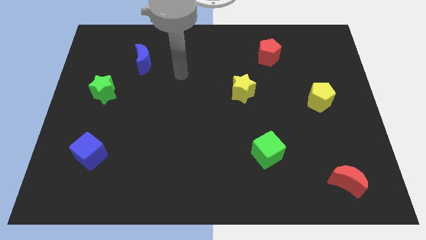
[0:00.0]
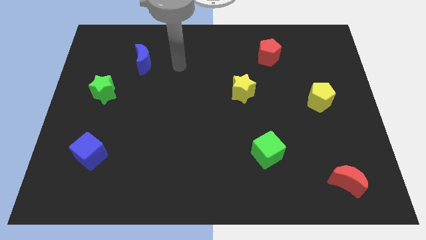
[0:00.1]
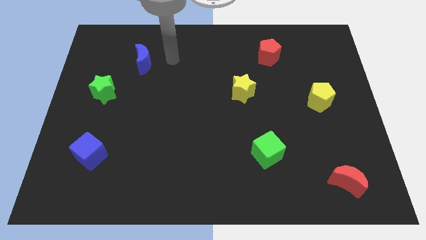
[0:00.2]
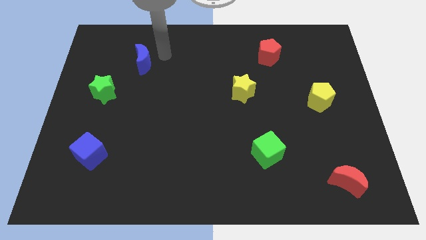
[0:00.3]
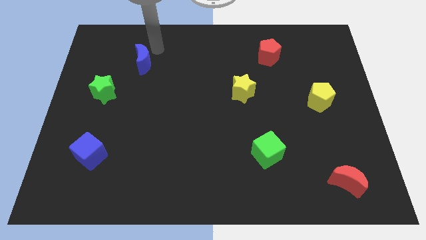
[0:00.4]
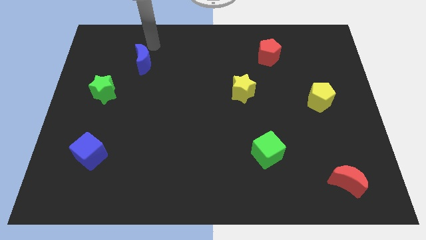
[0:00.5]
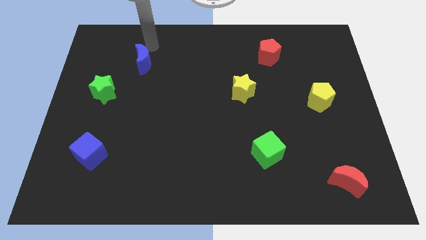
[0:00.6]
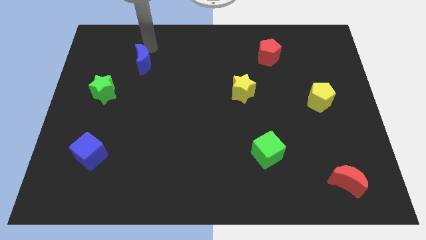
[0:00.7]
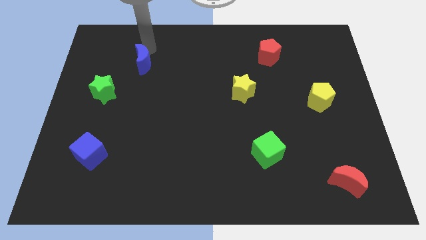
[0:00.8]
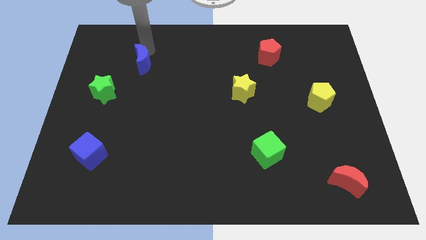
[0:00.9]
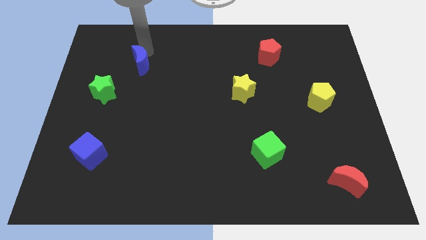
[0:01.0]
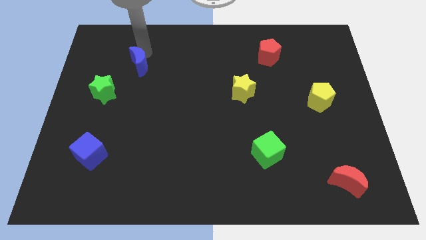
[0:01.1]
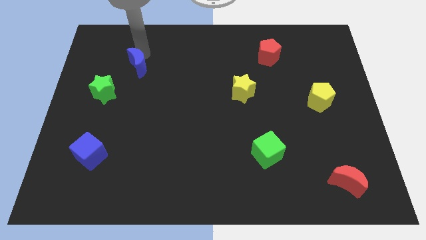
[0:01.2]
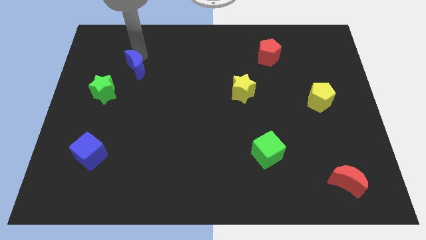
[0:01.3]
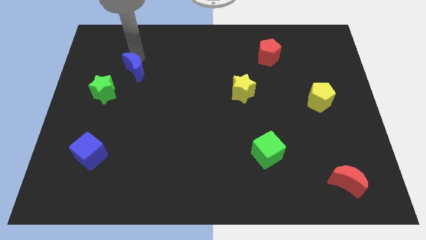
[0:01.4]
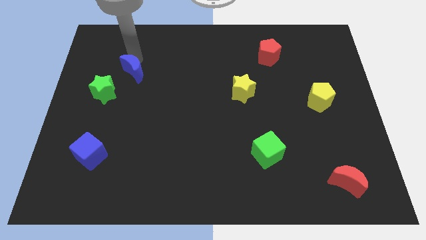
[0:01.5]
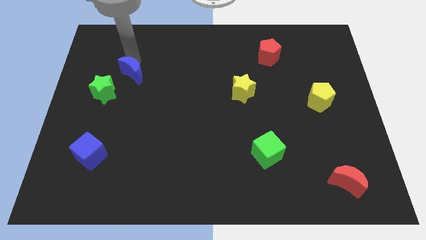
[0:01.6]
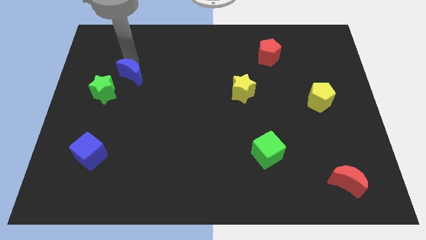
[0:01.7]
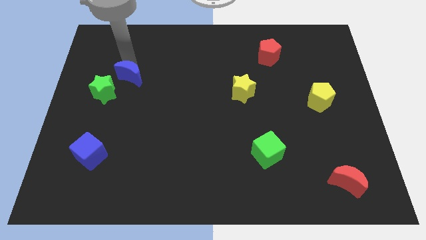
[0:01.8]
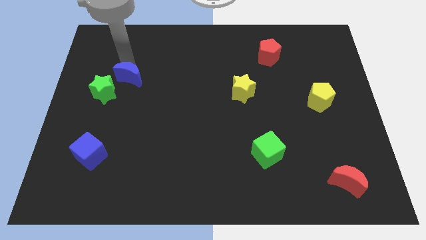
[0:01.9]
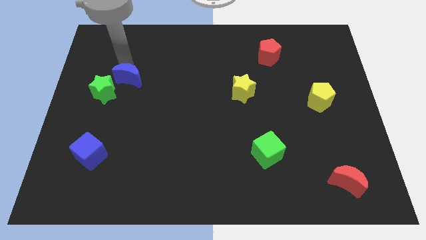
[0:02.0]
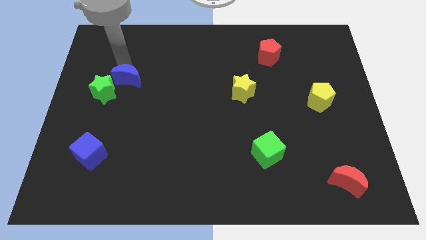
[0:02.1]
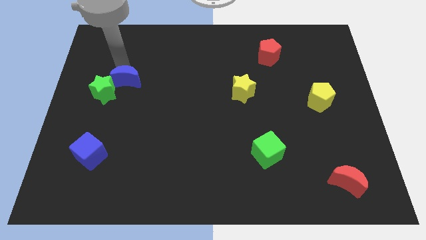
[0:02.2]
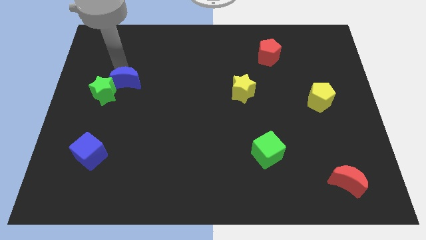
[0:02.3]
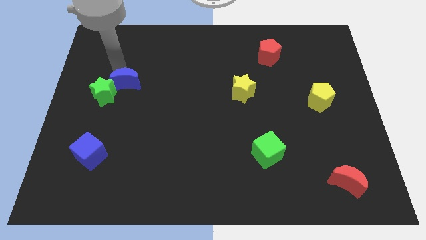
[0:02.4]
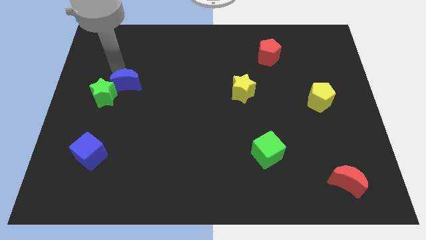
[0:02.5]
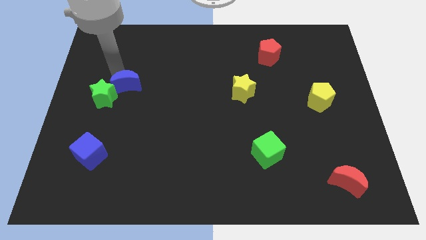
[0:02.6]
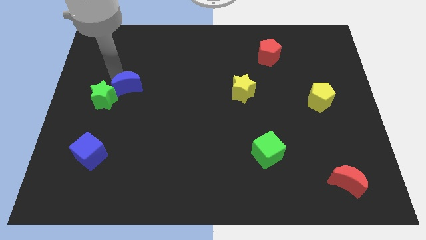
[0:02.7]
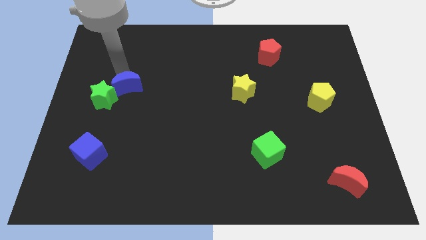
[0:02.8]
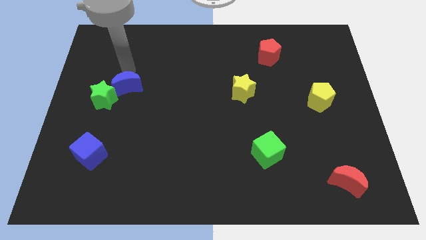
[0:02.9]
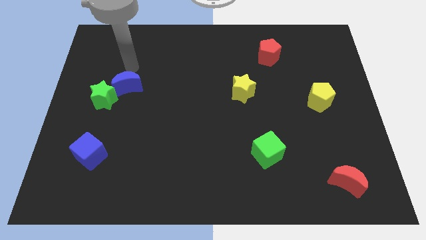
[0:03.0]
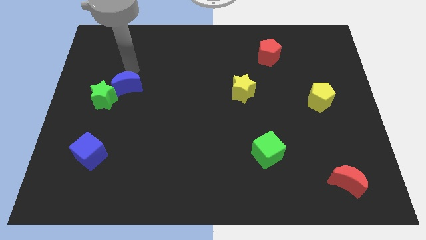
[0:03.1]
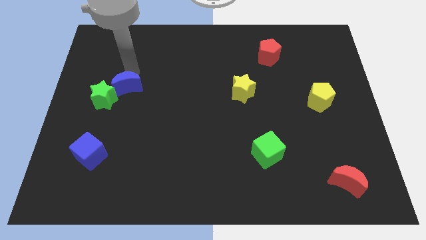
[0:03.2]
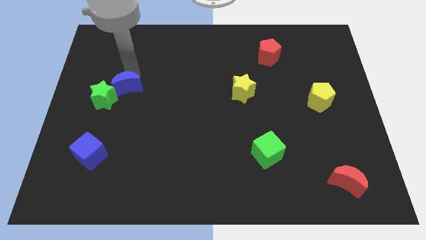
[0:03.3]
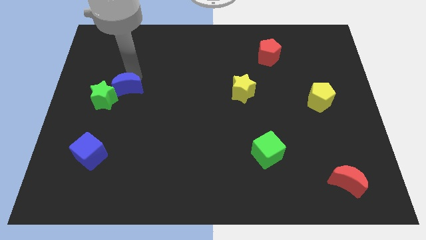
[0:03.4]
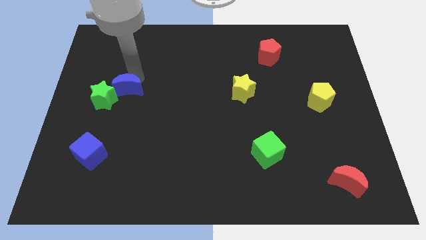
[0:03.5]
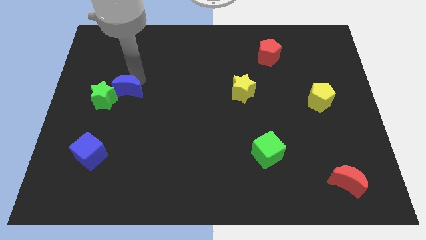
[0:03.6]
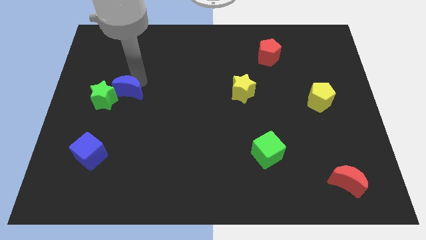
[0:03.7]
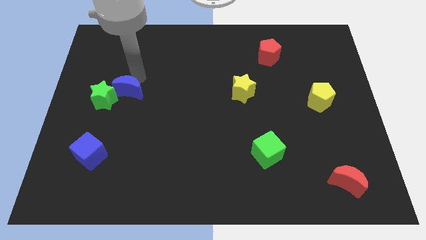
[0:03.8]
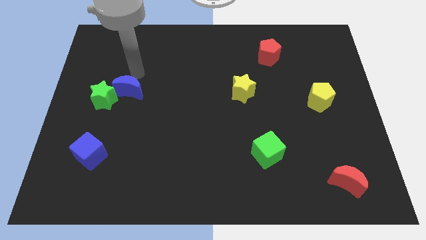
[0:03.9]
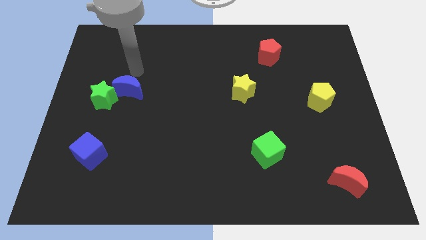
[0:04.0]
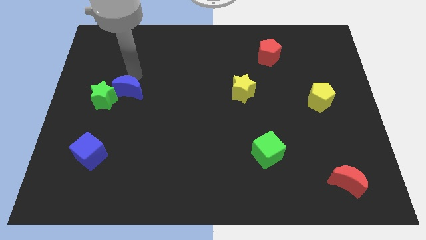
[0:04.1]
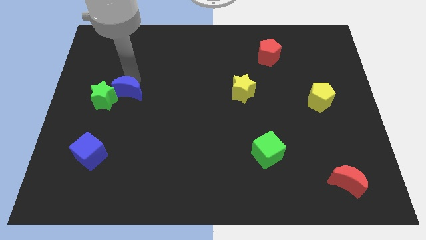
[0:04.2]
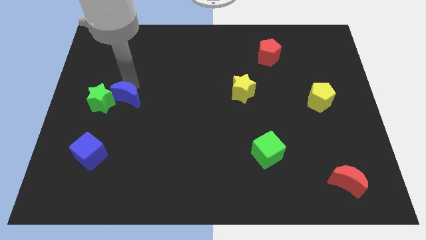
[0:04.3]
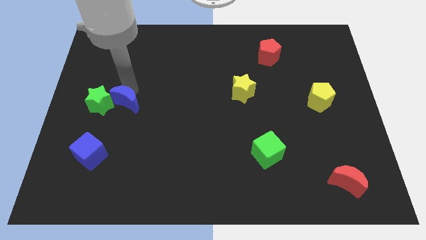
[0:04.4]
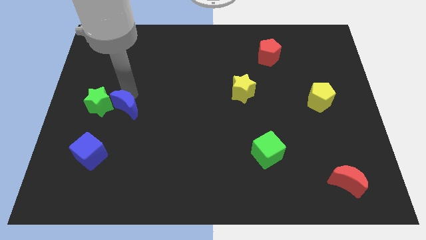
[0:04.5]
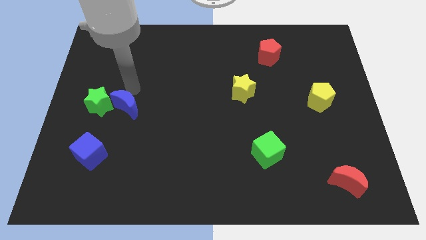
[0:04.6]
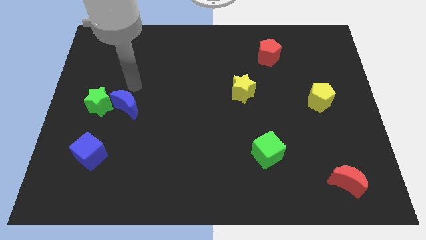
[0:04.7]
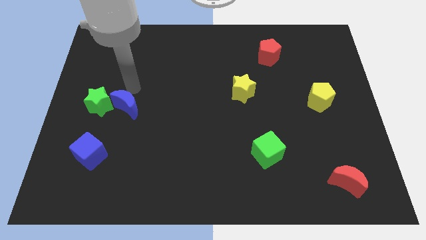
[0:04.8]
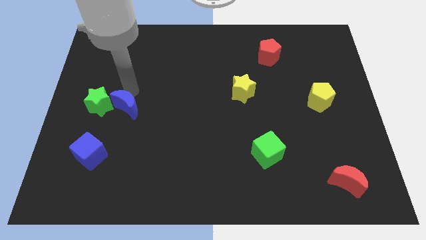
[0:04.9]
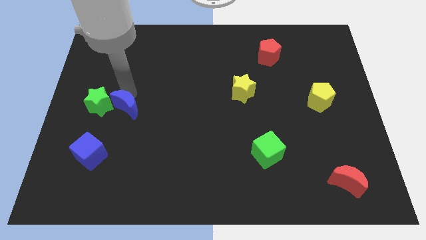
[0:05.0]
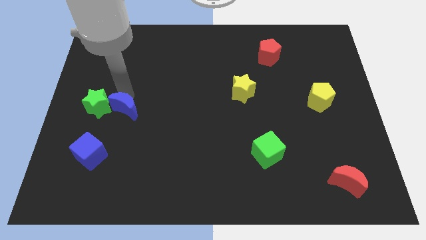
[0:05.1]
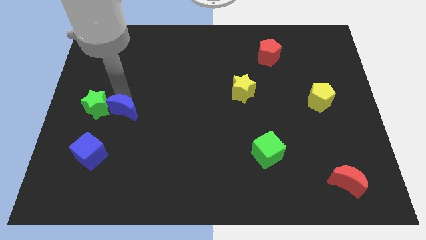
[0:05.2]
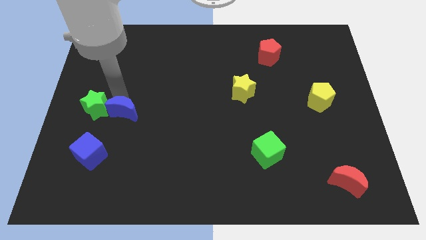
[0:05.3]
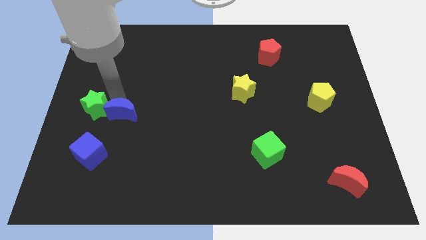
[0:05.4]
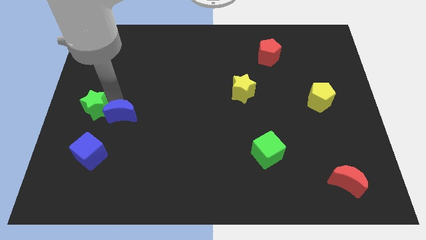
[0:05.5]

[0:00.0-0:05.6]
slide the blue moon diagonally up and to the right of the blue cube

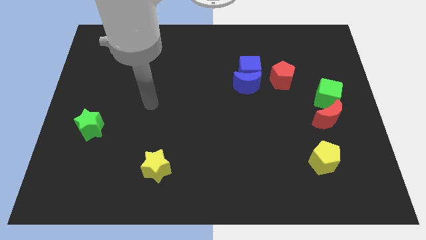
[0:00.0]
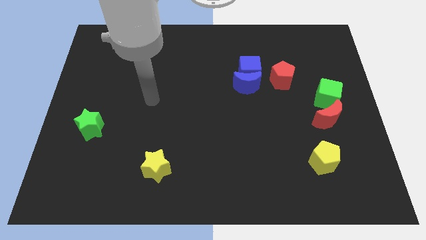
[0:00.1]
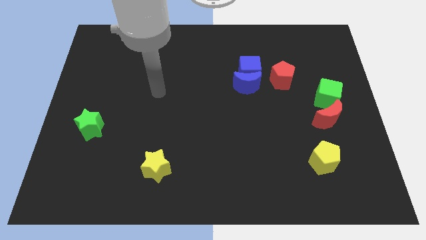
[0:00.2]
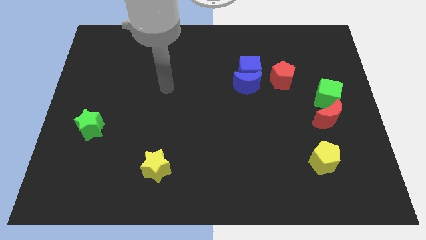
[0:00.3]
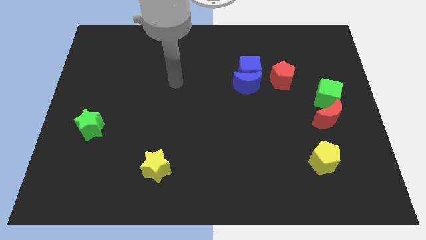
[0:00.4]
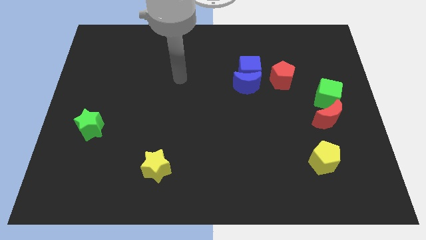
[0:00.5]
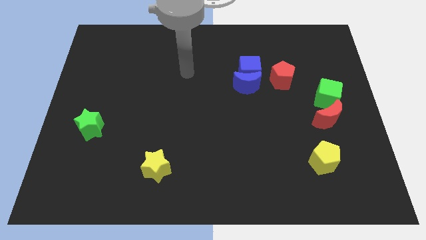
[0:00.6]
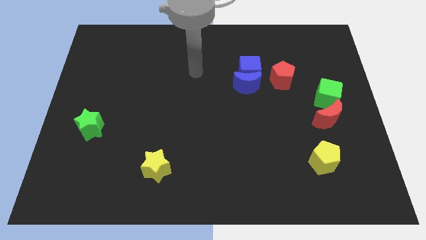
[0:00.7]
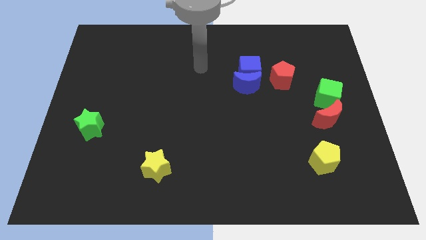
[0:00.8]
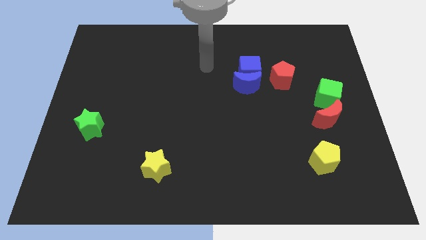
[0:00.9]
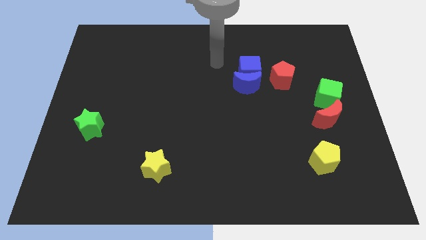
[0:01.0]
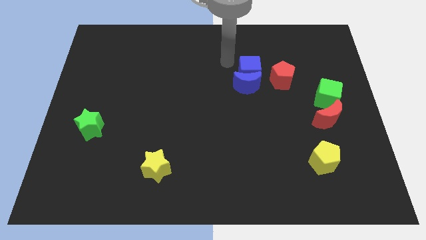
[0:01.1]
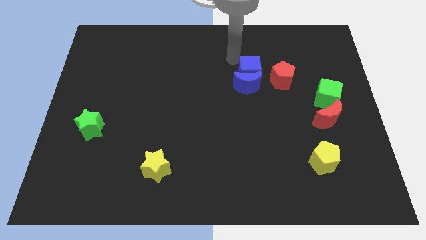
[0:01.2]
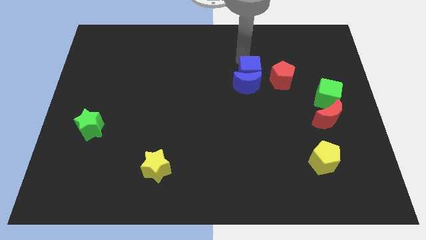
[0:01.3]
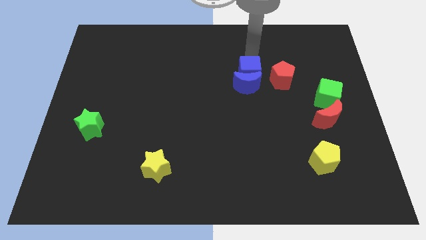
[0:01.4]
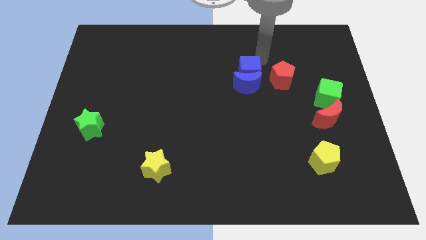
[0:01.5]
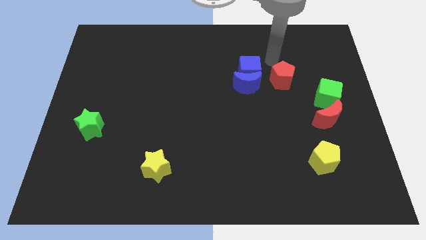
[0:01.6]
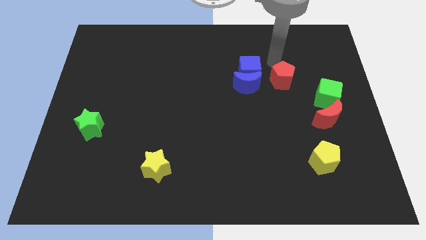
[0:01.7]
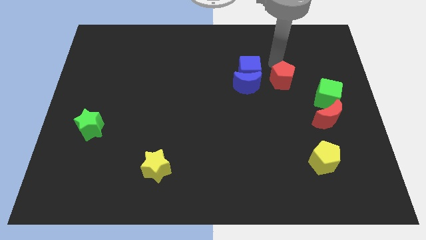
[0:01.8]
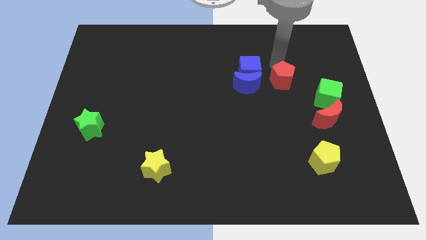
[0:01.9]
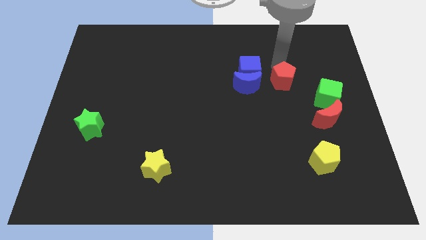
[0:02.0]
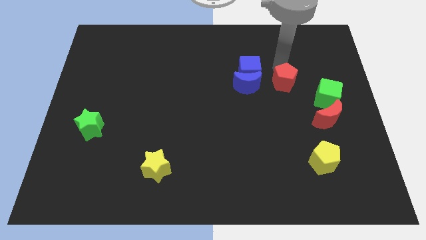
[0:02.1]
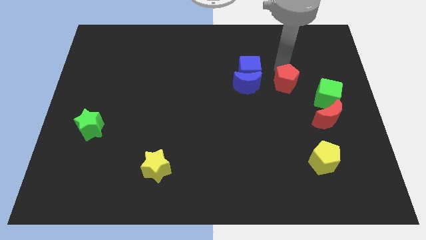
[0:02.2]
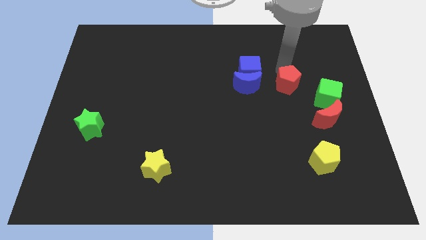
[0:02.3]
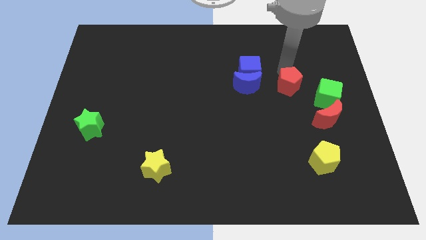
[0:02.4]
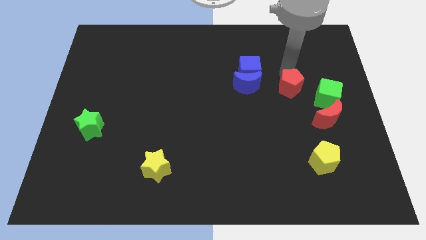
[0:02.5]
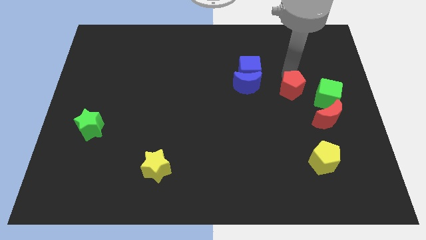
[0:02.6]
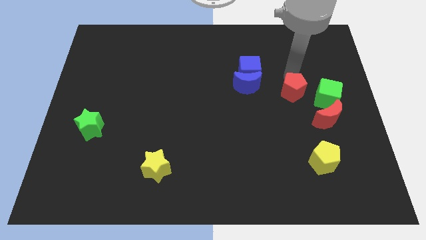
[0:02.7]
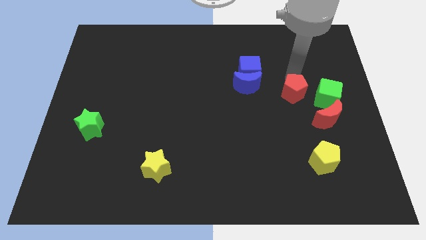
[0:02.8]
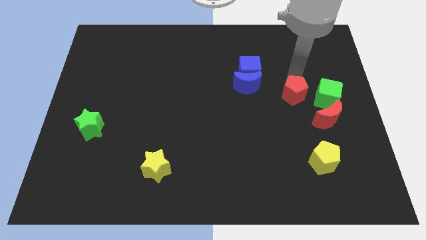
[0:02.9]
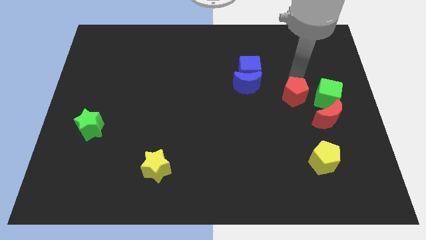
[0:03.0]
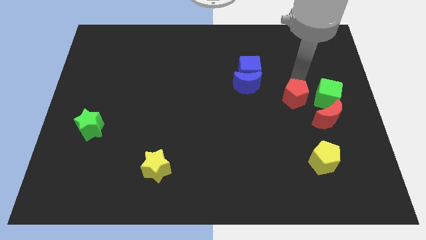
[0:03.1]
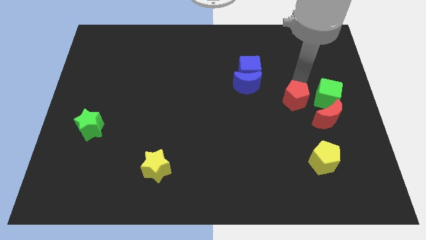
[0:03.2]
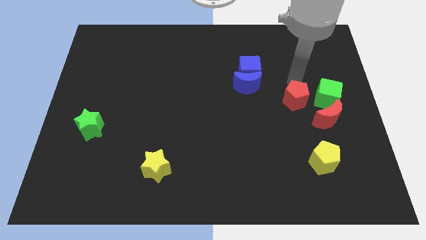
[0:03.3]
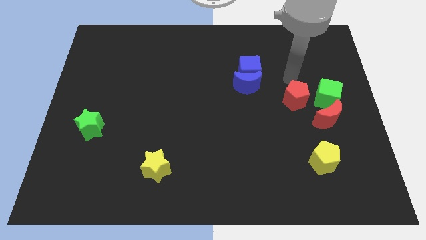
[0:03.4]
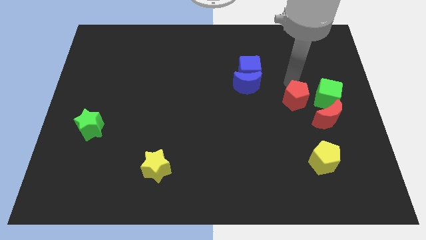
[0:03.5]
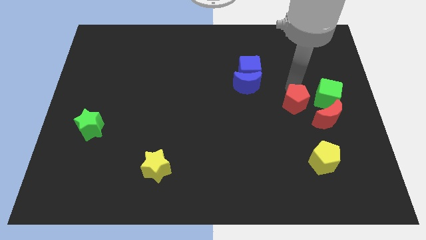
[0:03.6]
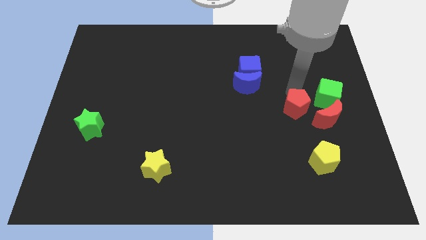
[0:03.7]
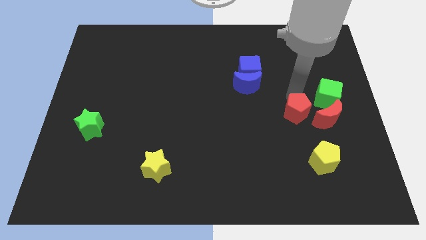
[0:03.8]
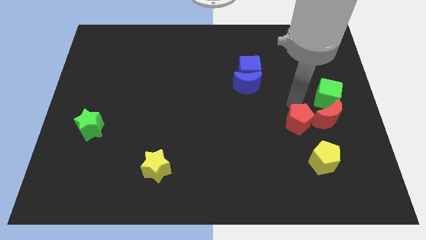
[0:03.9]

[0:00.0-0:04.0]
push the red pentagon to the bottom left side of the red moon
